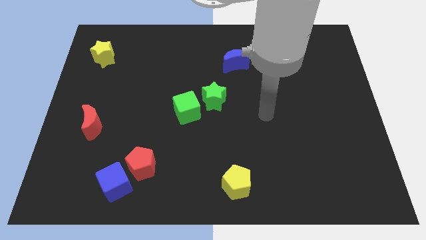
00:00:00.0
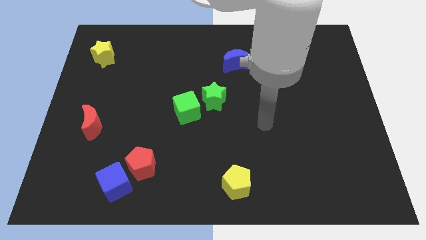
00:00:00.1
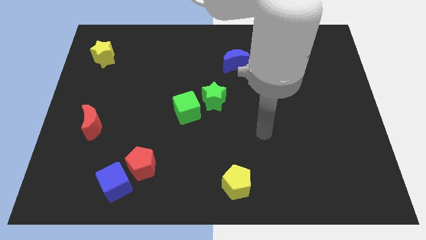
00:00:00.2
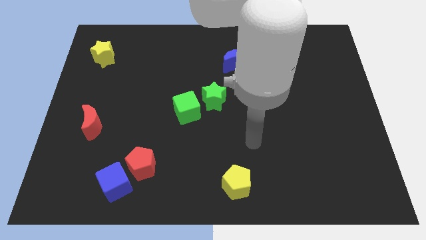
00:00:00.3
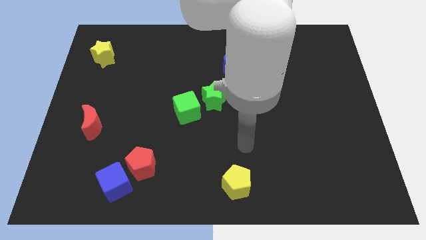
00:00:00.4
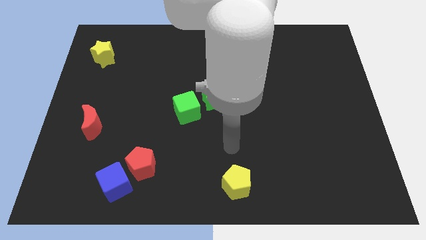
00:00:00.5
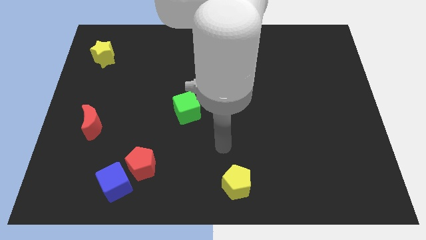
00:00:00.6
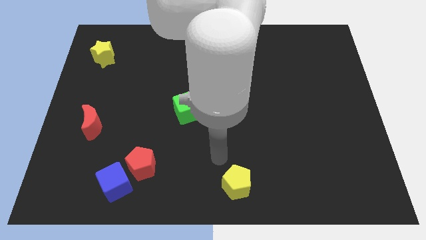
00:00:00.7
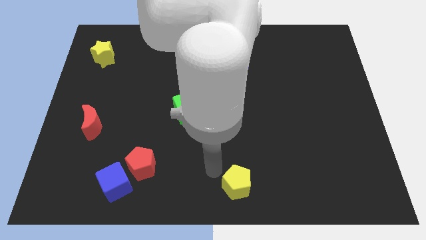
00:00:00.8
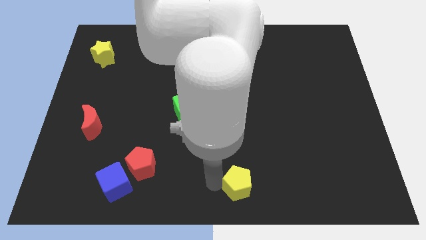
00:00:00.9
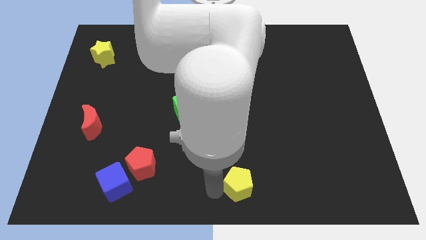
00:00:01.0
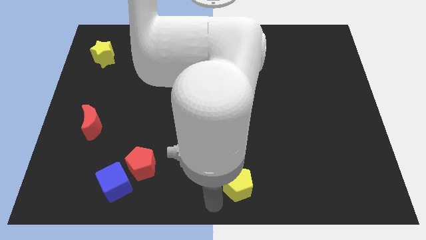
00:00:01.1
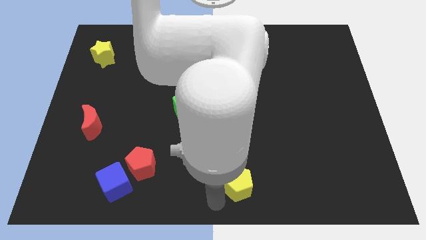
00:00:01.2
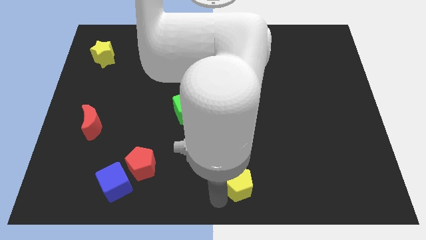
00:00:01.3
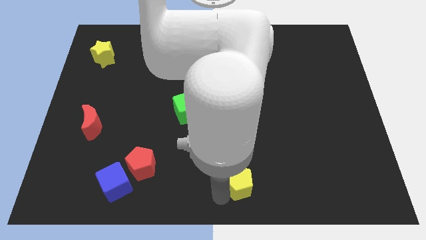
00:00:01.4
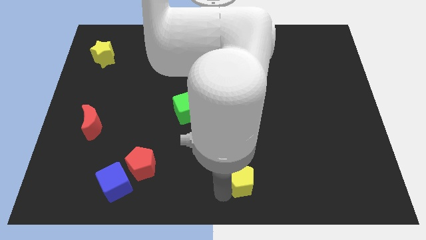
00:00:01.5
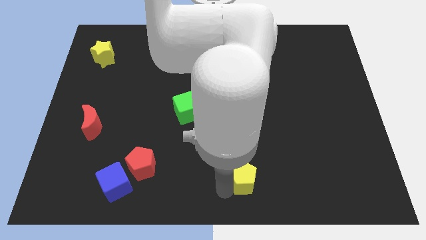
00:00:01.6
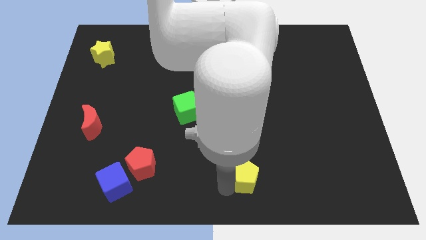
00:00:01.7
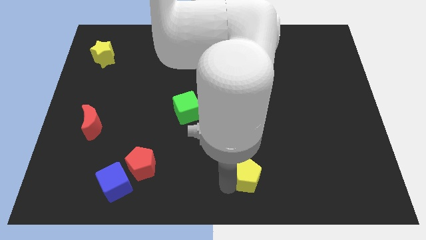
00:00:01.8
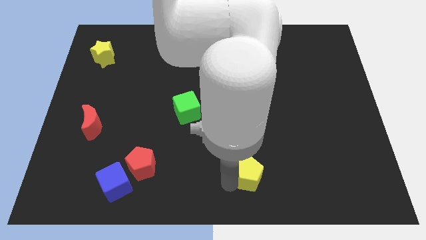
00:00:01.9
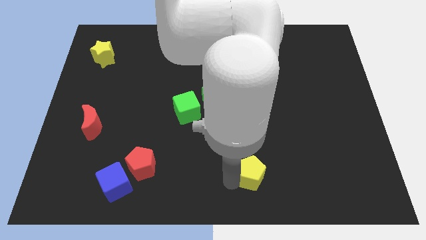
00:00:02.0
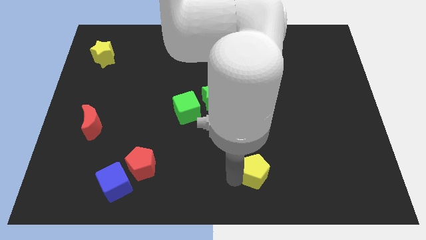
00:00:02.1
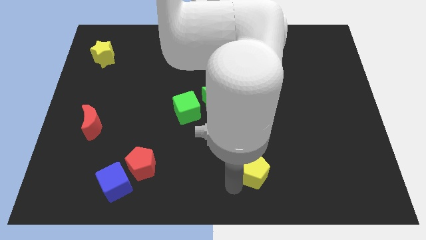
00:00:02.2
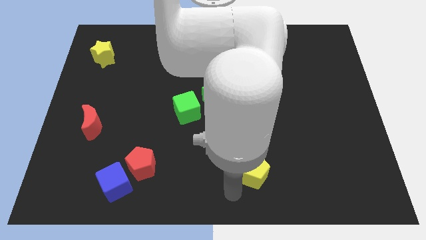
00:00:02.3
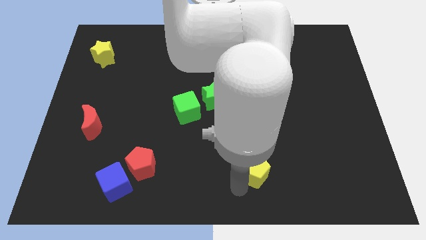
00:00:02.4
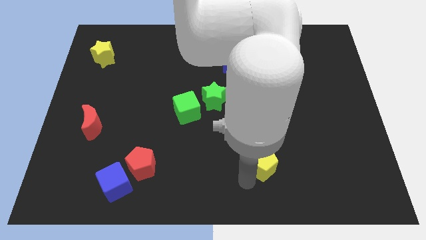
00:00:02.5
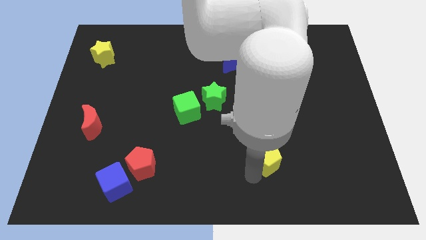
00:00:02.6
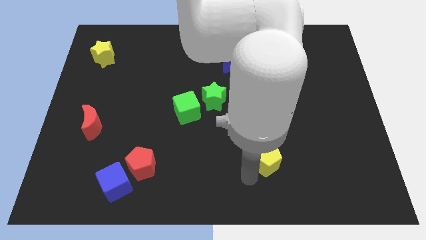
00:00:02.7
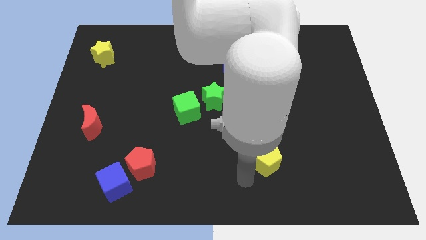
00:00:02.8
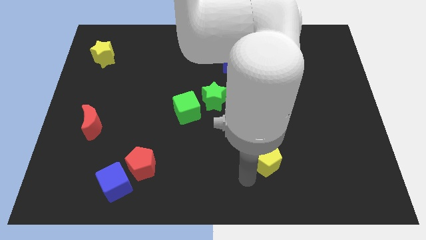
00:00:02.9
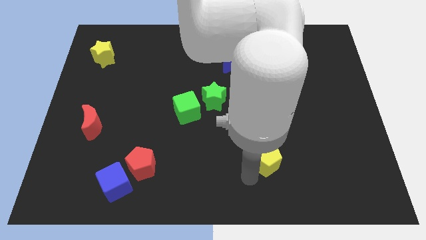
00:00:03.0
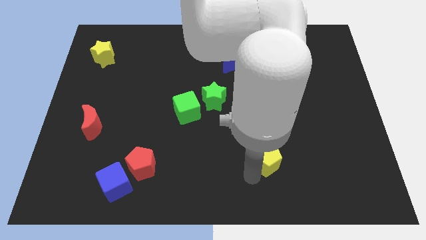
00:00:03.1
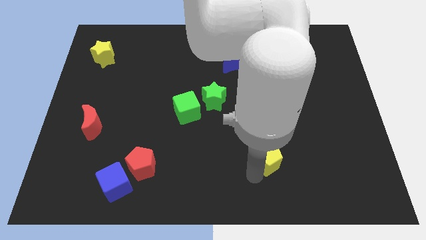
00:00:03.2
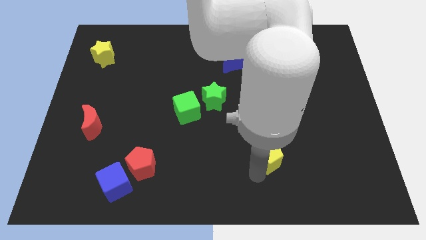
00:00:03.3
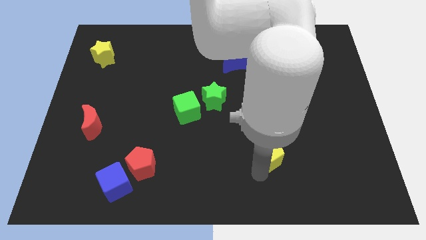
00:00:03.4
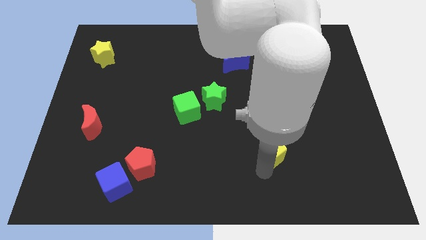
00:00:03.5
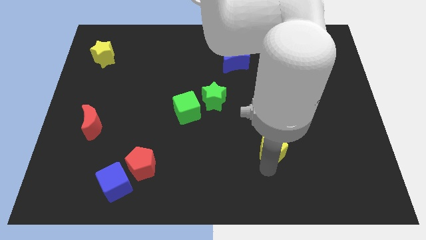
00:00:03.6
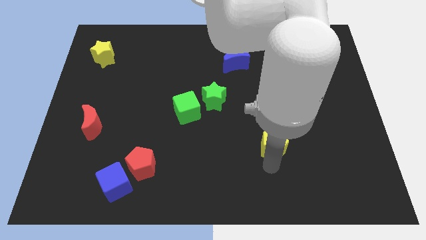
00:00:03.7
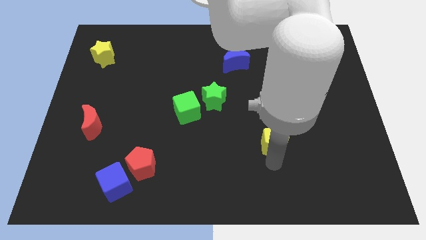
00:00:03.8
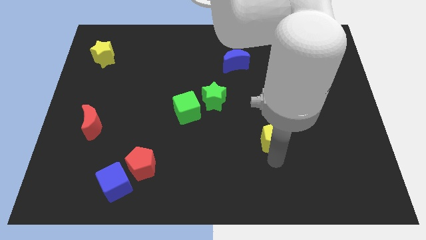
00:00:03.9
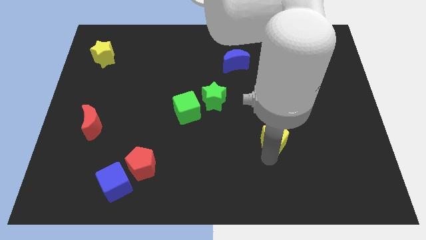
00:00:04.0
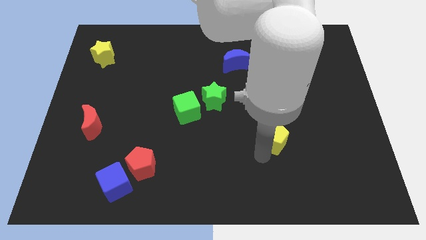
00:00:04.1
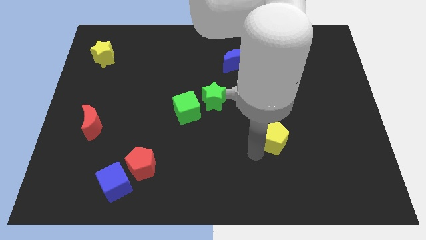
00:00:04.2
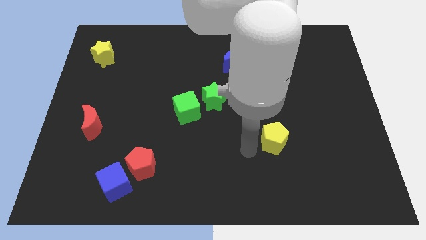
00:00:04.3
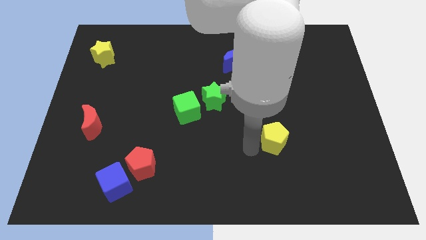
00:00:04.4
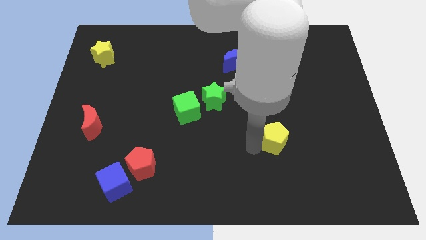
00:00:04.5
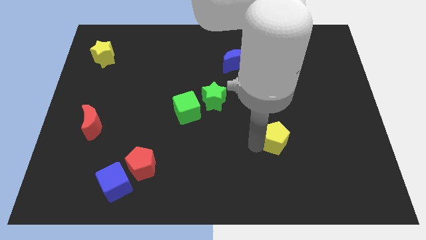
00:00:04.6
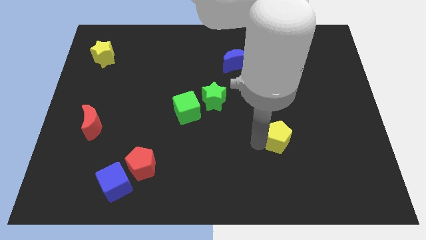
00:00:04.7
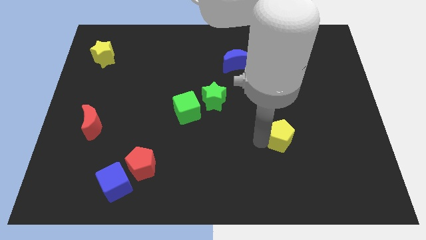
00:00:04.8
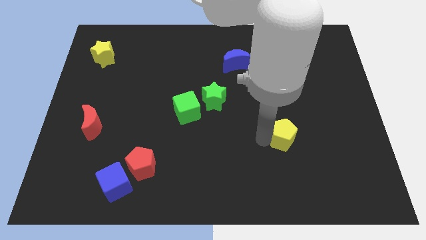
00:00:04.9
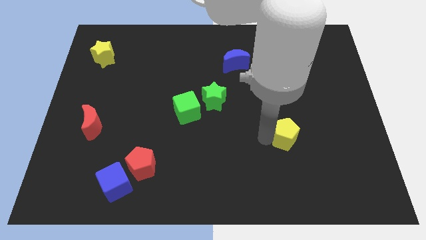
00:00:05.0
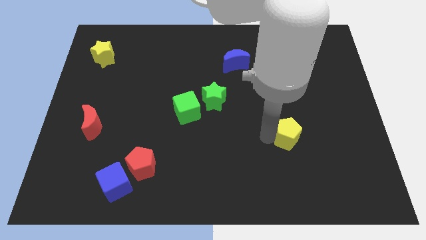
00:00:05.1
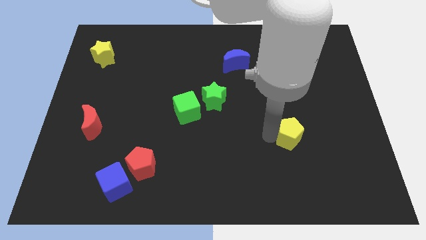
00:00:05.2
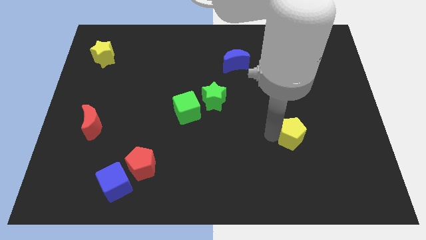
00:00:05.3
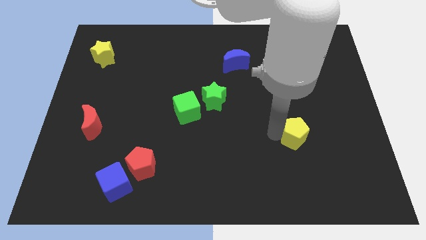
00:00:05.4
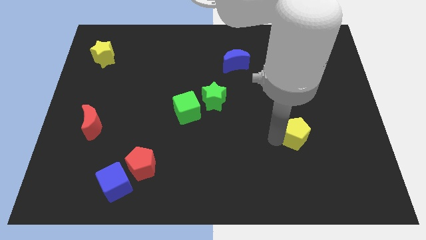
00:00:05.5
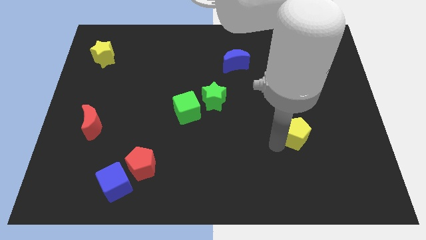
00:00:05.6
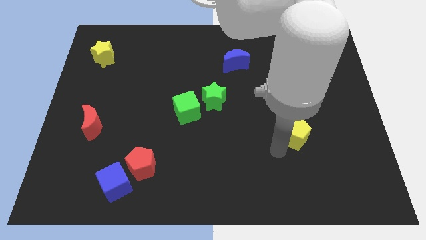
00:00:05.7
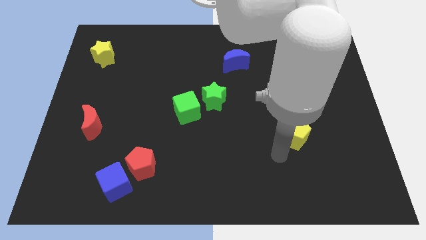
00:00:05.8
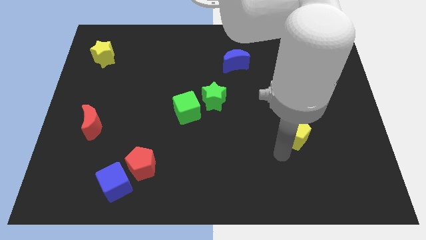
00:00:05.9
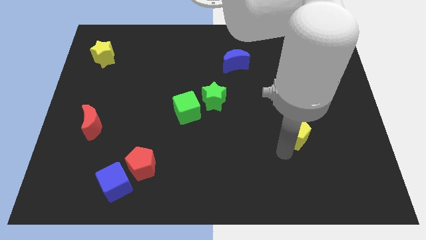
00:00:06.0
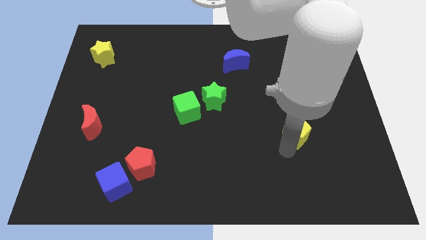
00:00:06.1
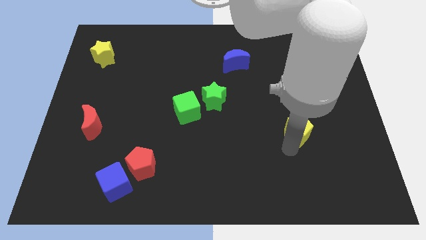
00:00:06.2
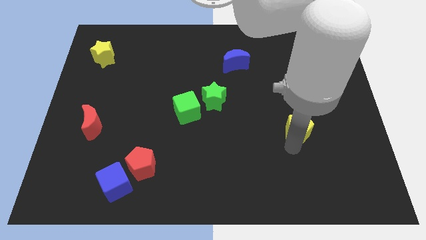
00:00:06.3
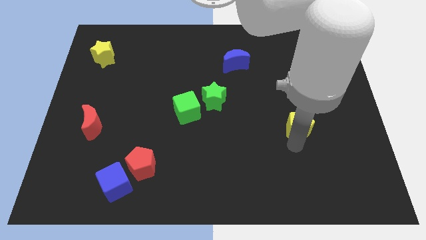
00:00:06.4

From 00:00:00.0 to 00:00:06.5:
push the yellow pentagon diagonally up and right

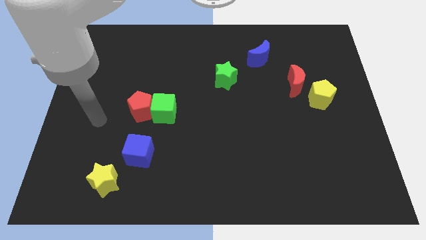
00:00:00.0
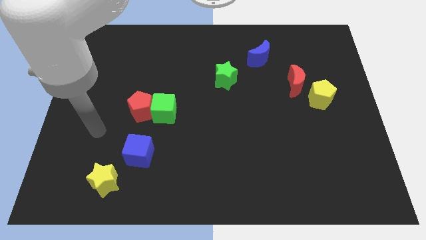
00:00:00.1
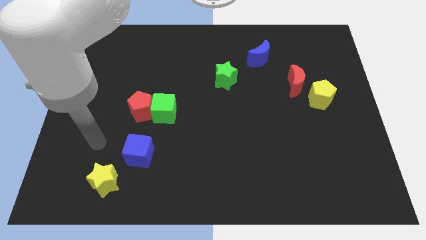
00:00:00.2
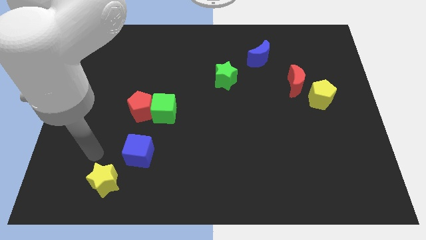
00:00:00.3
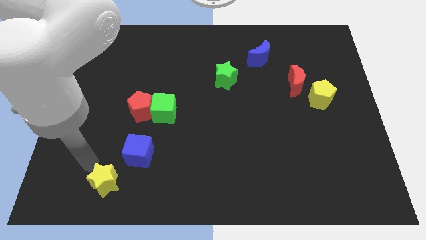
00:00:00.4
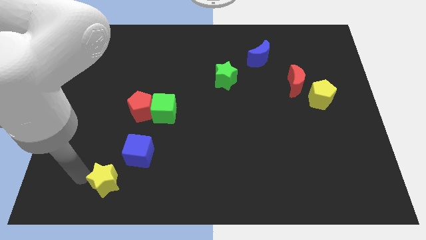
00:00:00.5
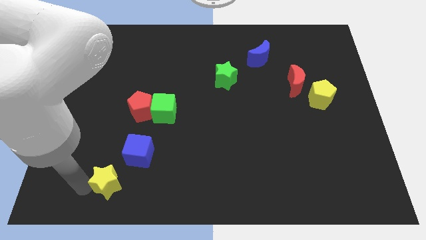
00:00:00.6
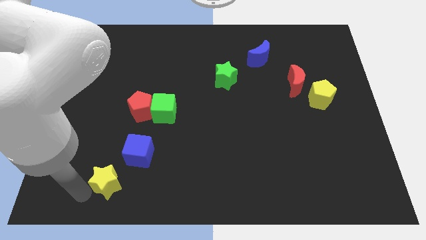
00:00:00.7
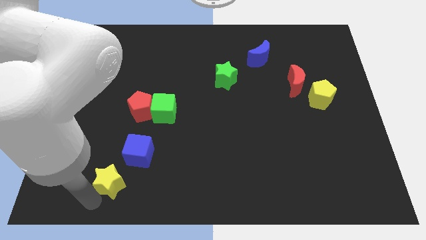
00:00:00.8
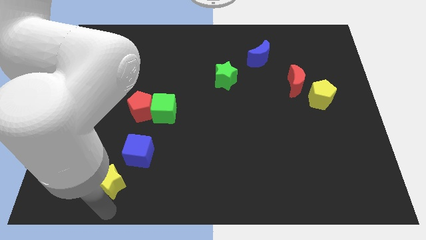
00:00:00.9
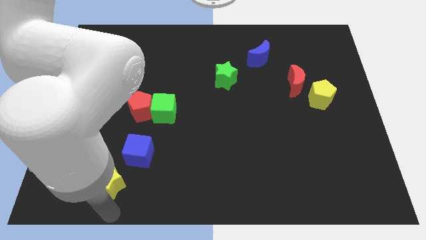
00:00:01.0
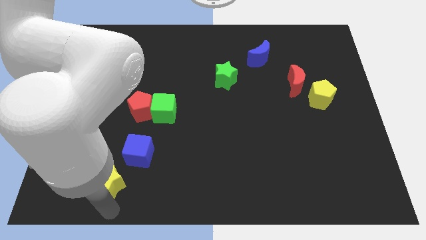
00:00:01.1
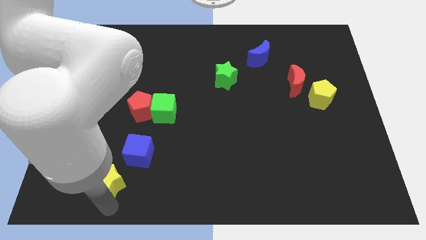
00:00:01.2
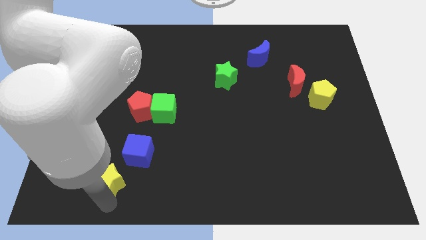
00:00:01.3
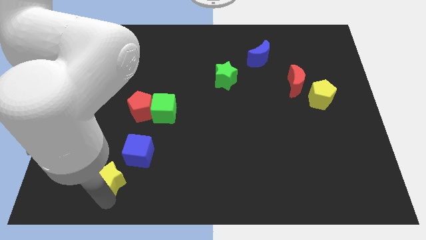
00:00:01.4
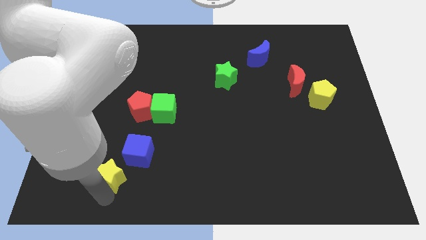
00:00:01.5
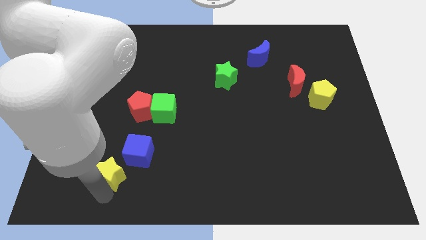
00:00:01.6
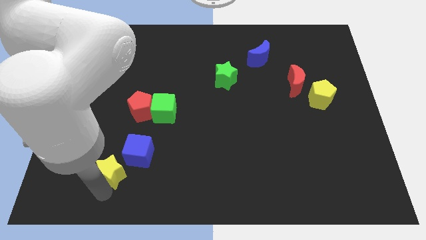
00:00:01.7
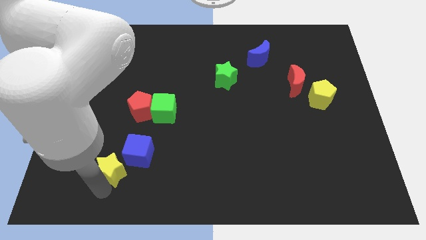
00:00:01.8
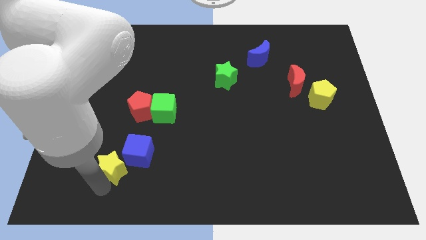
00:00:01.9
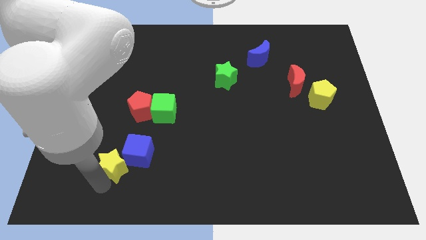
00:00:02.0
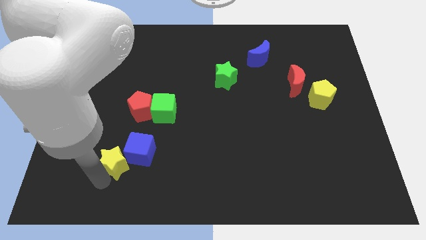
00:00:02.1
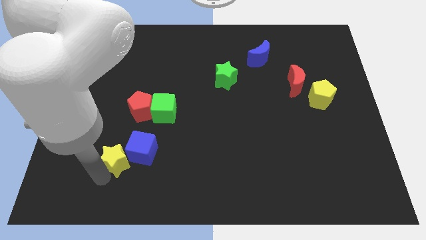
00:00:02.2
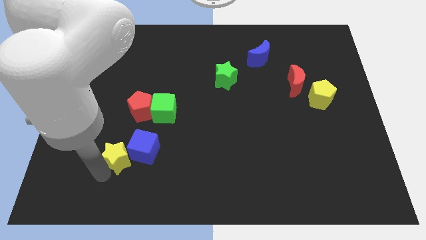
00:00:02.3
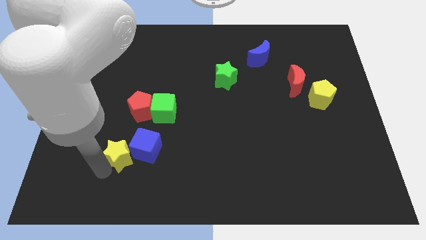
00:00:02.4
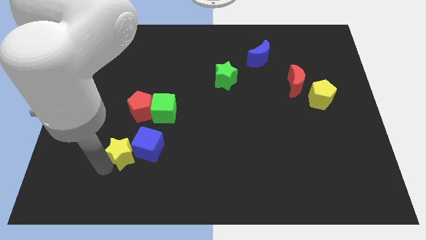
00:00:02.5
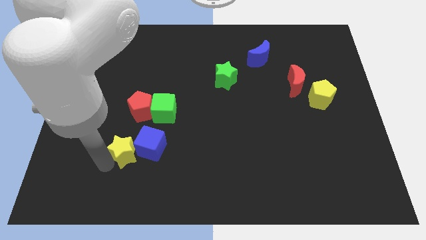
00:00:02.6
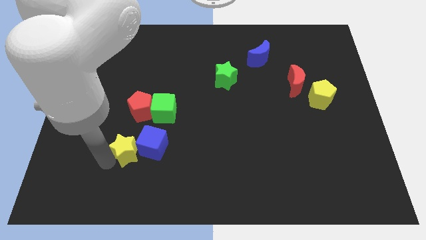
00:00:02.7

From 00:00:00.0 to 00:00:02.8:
slightly push the yellow star upwards
